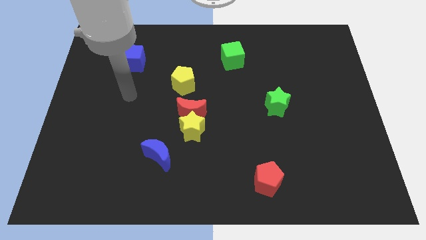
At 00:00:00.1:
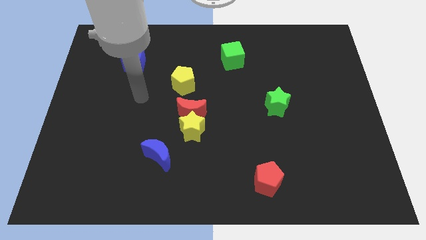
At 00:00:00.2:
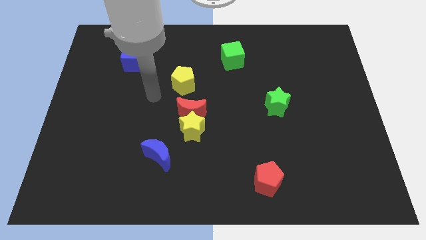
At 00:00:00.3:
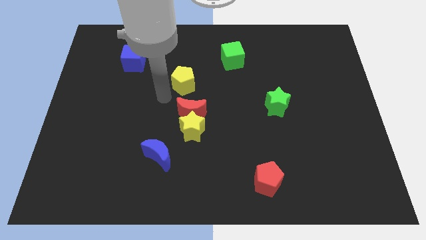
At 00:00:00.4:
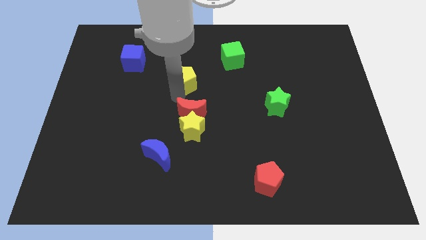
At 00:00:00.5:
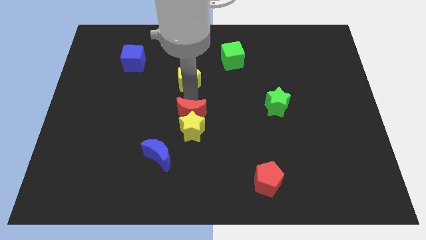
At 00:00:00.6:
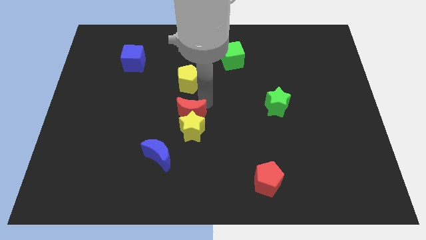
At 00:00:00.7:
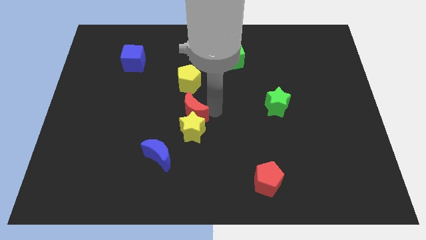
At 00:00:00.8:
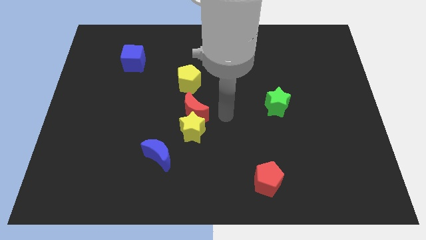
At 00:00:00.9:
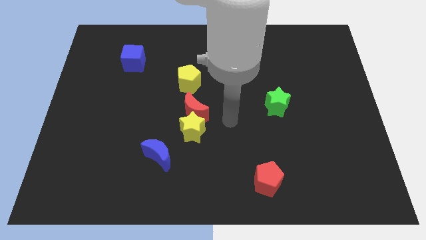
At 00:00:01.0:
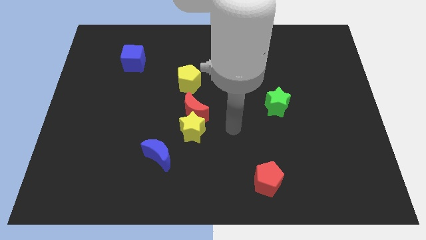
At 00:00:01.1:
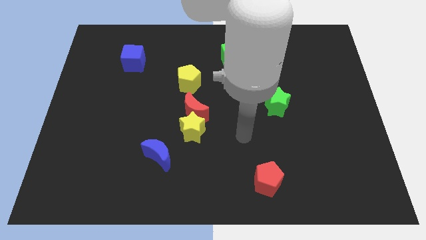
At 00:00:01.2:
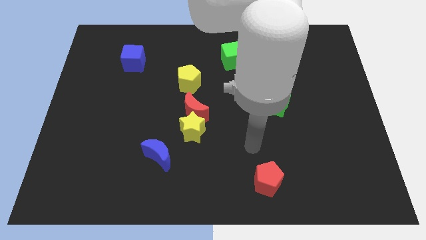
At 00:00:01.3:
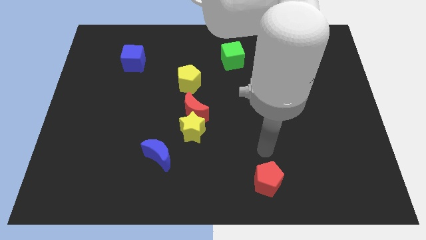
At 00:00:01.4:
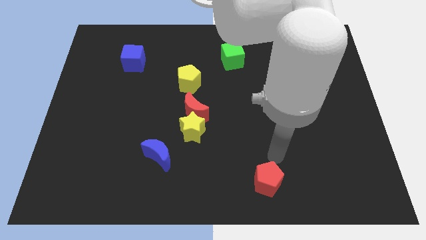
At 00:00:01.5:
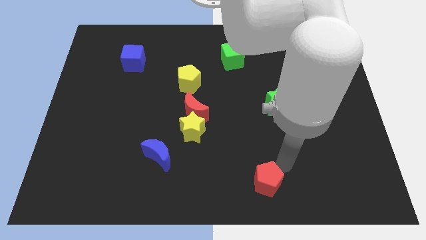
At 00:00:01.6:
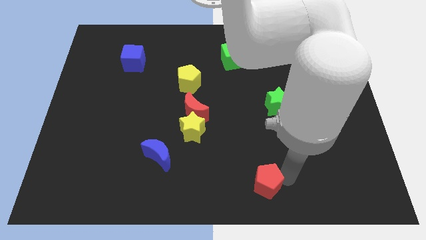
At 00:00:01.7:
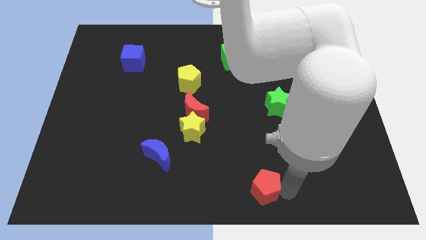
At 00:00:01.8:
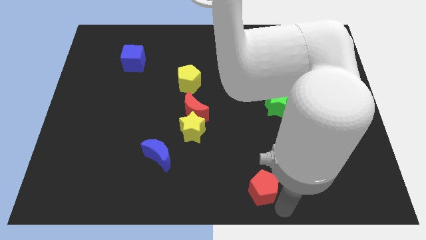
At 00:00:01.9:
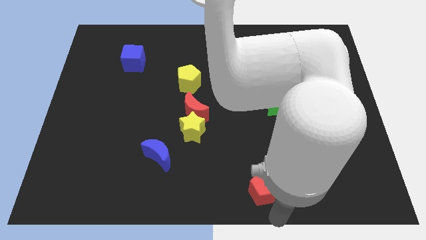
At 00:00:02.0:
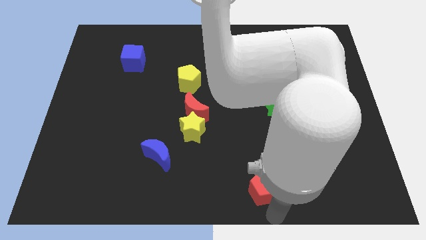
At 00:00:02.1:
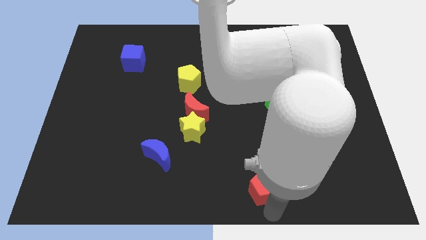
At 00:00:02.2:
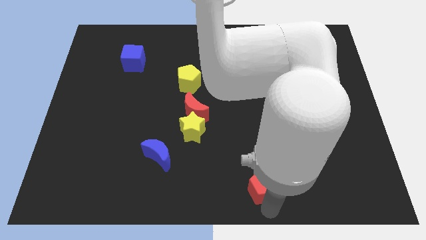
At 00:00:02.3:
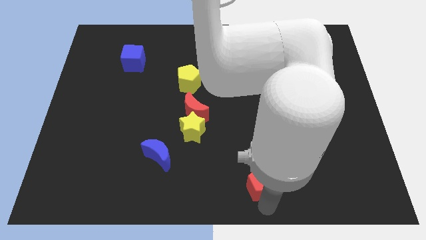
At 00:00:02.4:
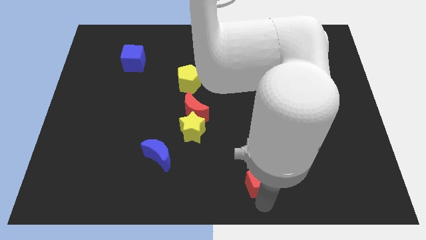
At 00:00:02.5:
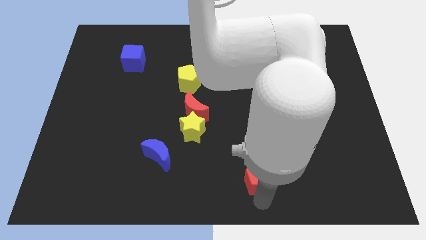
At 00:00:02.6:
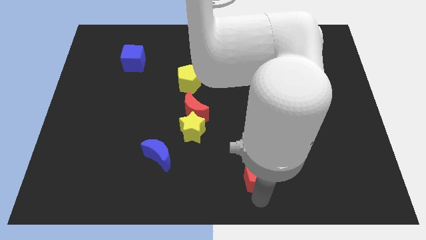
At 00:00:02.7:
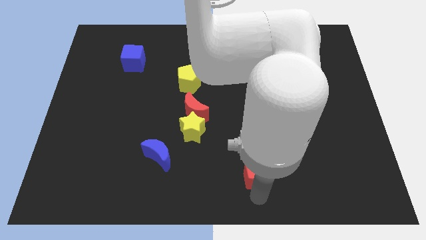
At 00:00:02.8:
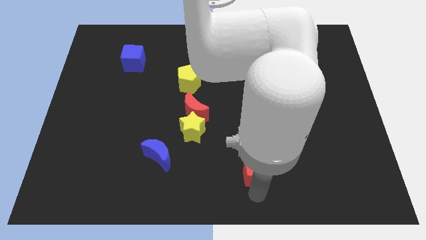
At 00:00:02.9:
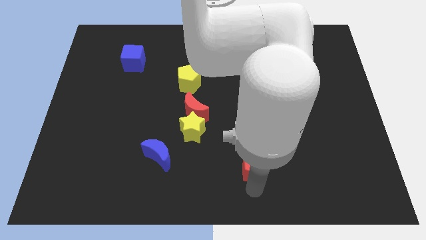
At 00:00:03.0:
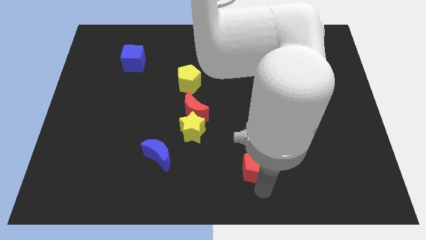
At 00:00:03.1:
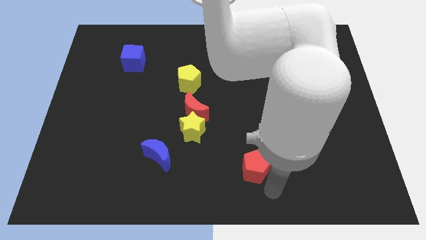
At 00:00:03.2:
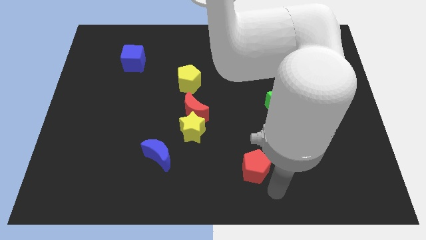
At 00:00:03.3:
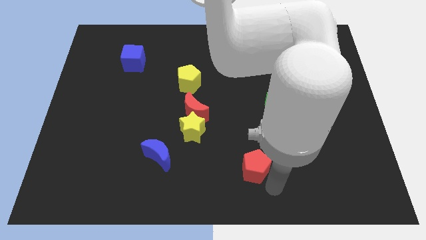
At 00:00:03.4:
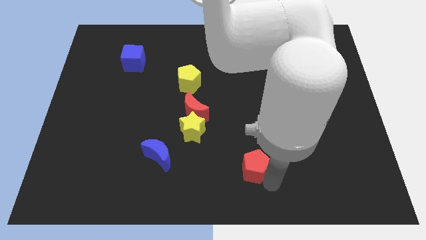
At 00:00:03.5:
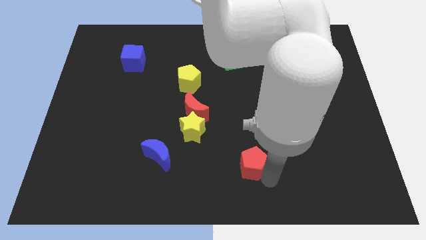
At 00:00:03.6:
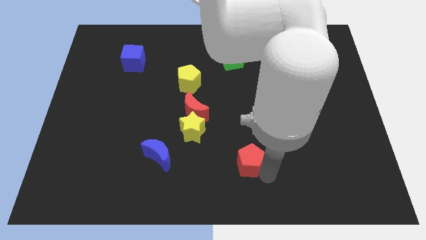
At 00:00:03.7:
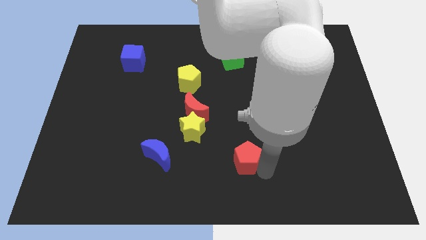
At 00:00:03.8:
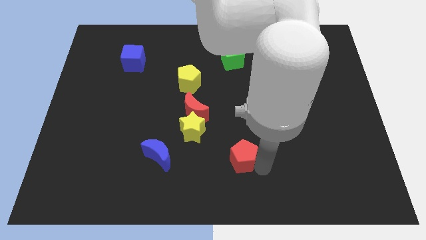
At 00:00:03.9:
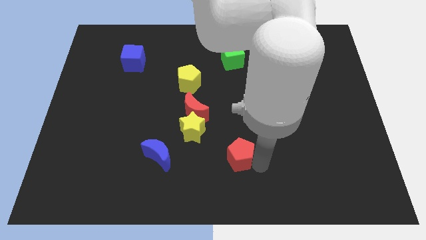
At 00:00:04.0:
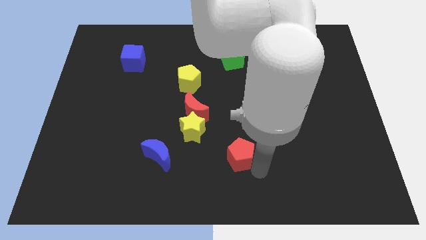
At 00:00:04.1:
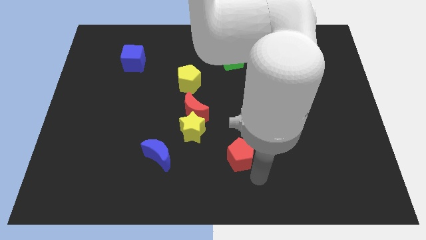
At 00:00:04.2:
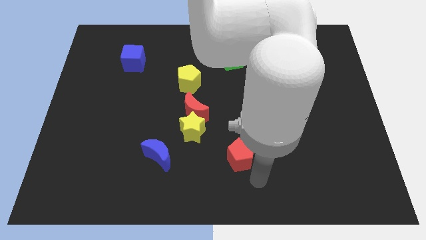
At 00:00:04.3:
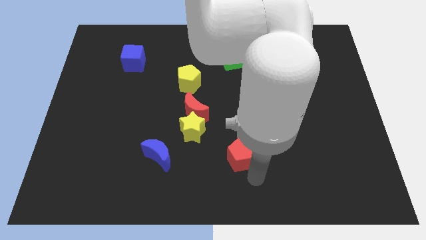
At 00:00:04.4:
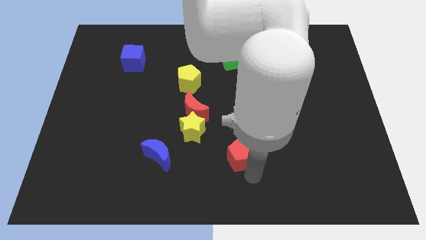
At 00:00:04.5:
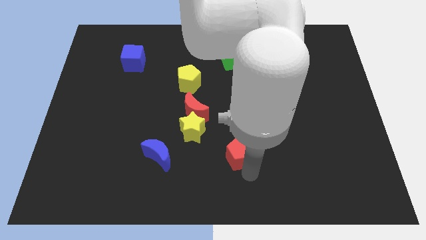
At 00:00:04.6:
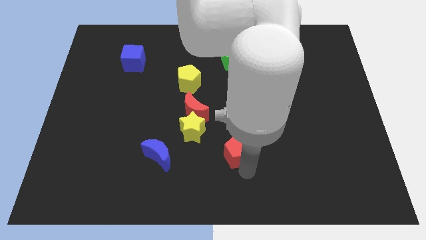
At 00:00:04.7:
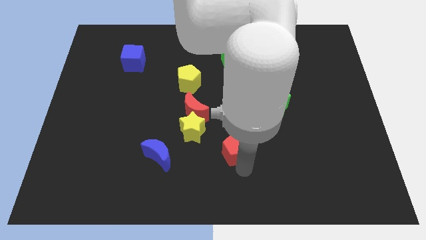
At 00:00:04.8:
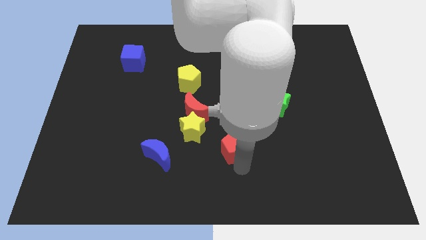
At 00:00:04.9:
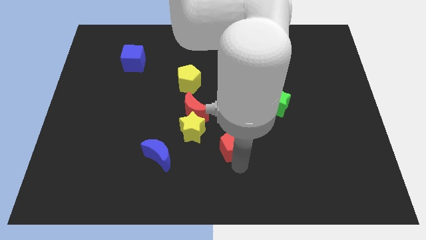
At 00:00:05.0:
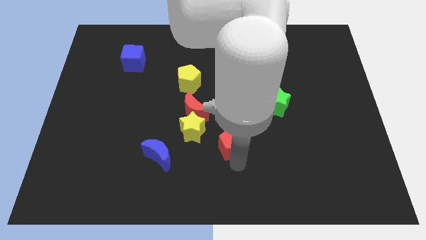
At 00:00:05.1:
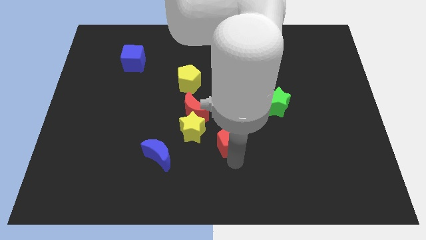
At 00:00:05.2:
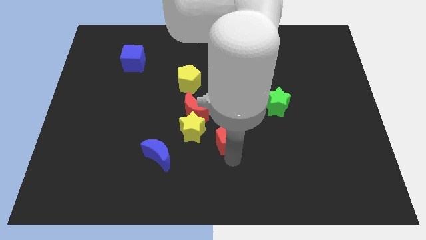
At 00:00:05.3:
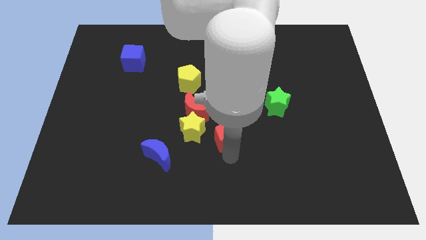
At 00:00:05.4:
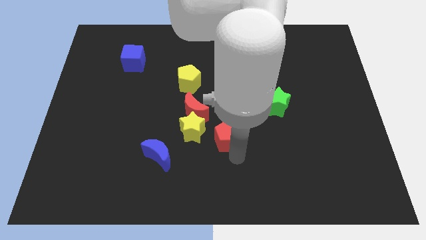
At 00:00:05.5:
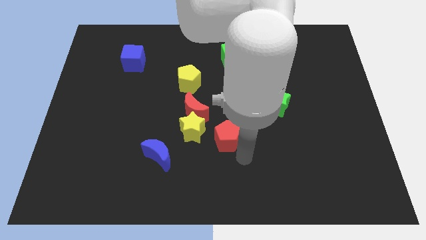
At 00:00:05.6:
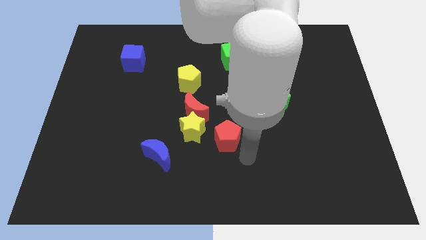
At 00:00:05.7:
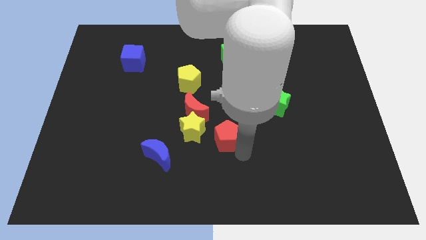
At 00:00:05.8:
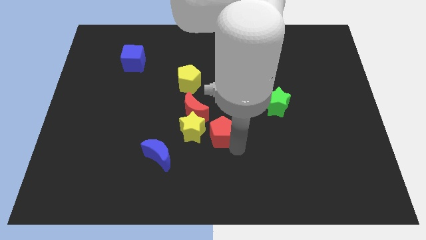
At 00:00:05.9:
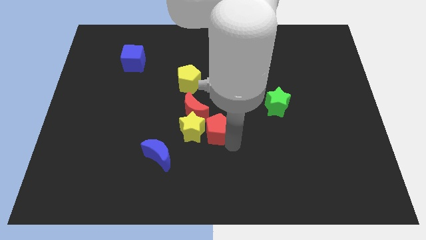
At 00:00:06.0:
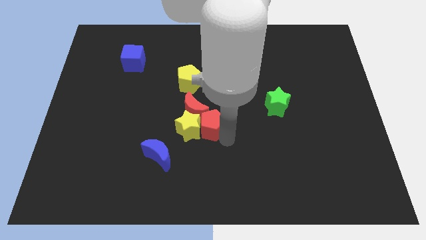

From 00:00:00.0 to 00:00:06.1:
push the red pentagon to the red moon

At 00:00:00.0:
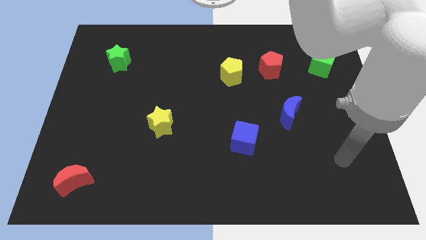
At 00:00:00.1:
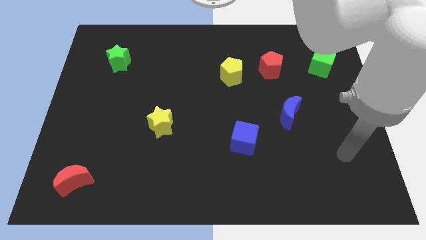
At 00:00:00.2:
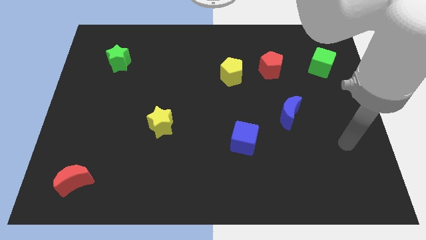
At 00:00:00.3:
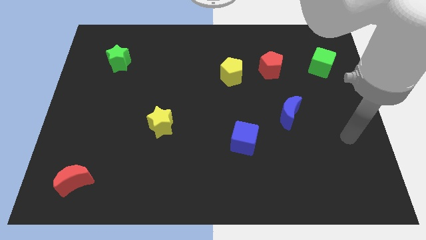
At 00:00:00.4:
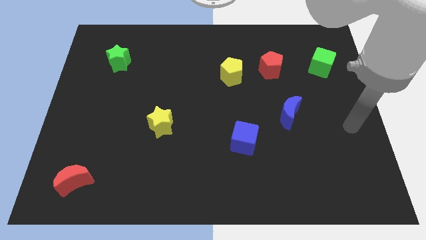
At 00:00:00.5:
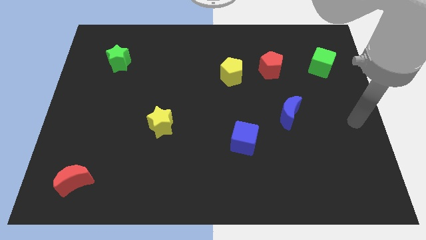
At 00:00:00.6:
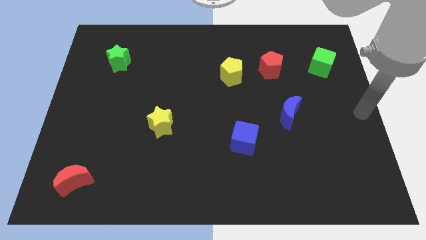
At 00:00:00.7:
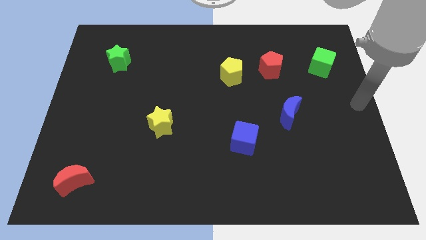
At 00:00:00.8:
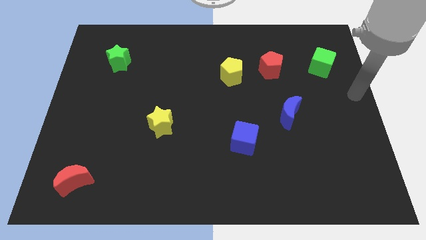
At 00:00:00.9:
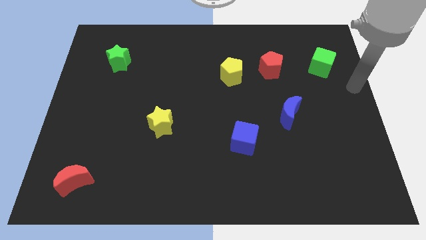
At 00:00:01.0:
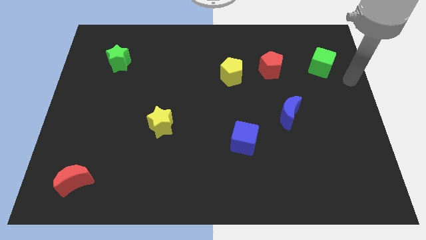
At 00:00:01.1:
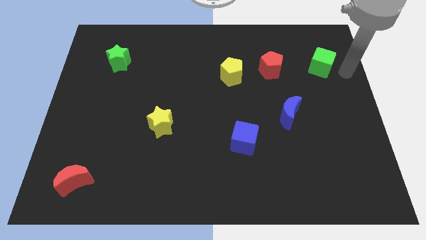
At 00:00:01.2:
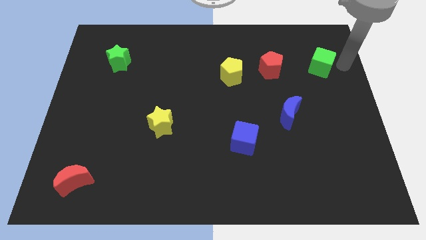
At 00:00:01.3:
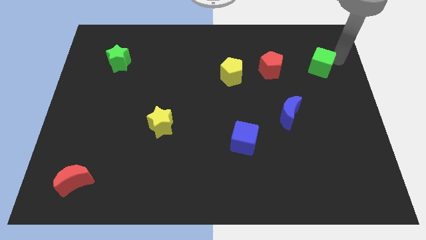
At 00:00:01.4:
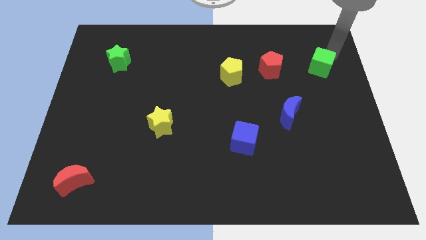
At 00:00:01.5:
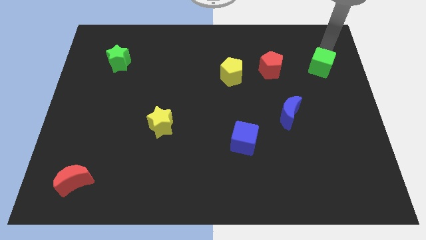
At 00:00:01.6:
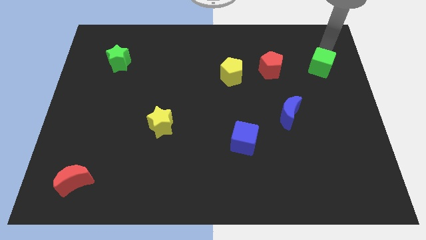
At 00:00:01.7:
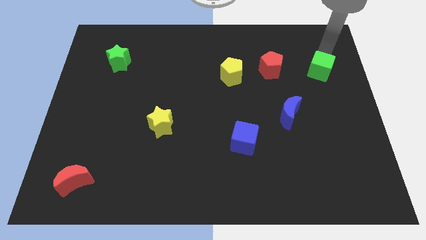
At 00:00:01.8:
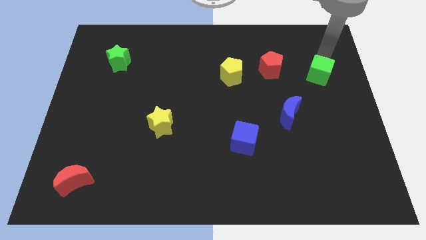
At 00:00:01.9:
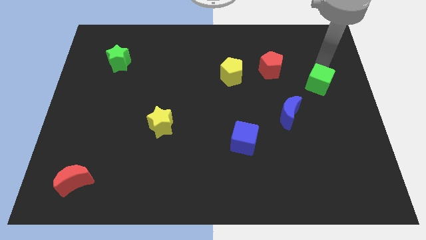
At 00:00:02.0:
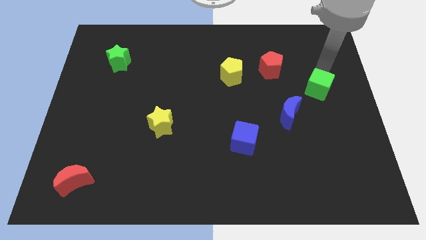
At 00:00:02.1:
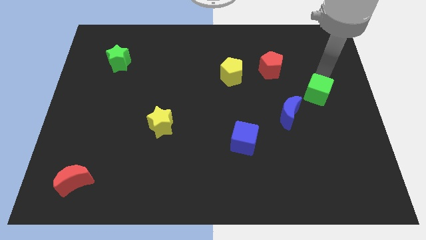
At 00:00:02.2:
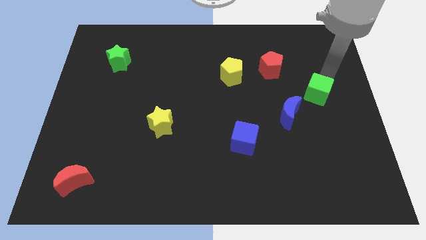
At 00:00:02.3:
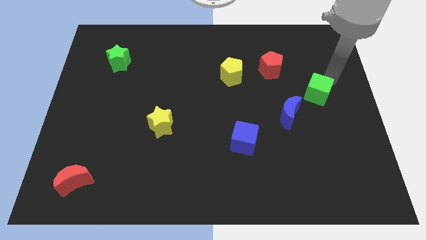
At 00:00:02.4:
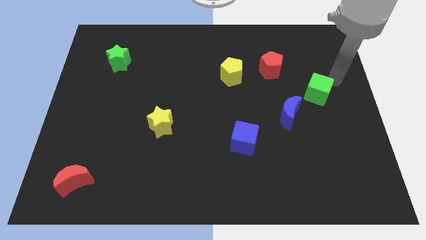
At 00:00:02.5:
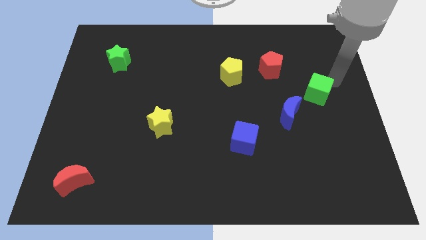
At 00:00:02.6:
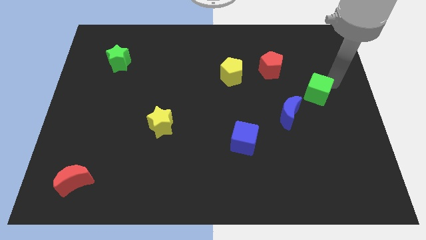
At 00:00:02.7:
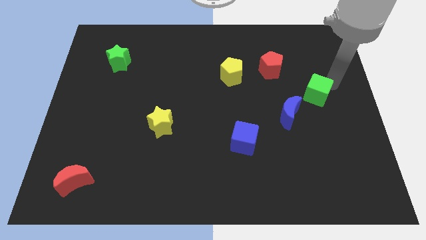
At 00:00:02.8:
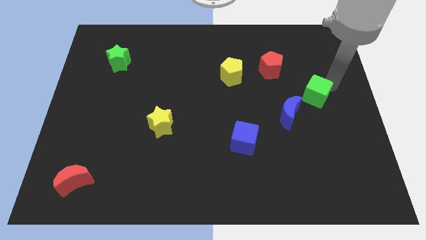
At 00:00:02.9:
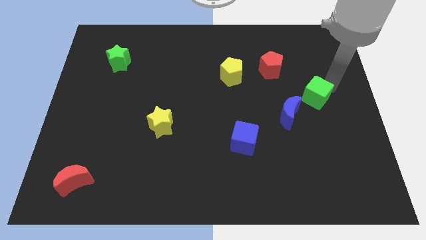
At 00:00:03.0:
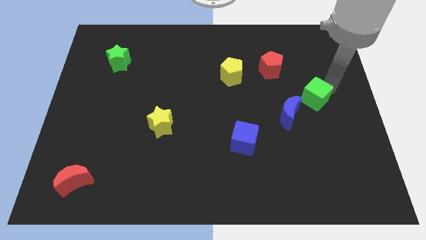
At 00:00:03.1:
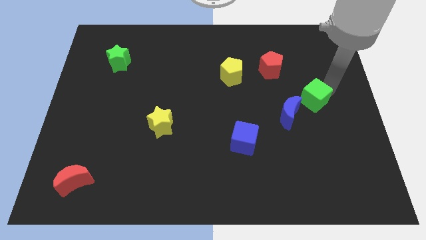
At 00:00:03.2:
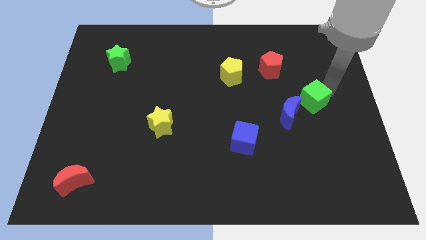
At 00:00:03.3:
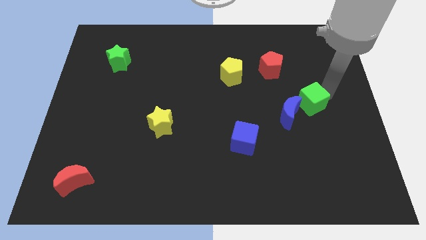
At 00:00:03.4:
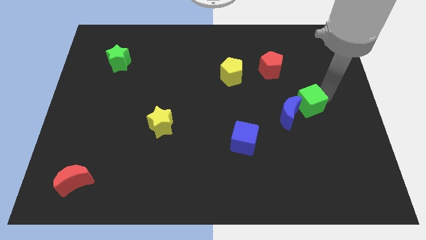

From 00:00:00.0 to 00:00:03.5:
push the green cube next to the blue moon
